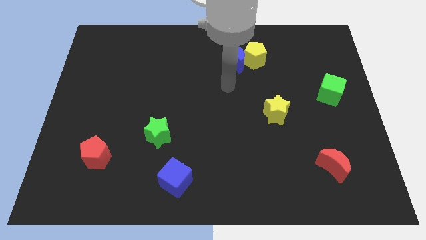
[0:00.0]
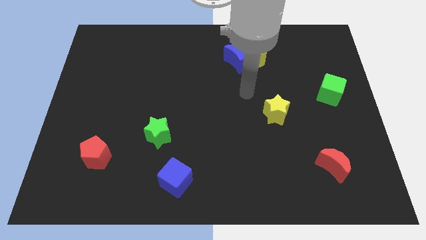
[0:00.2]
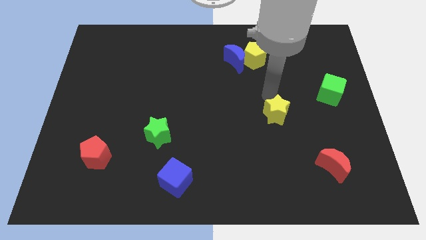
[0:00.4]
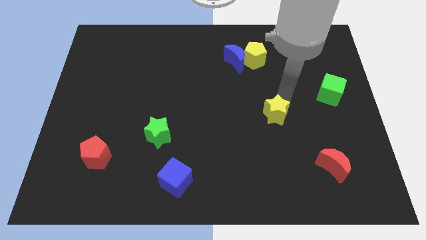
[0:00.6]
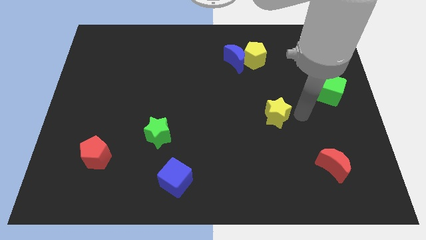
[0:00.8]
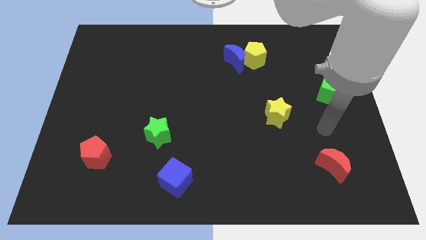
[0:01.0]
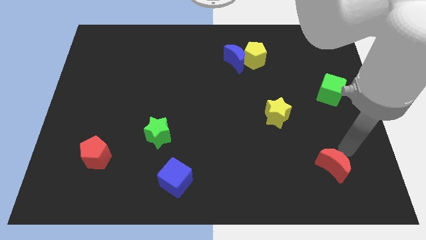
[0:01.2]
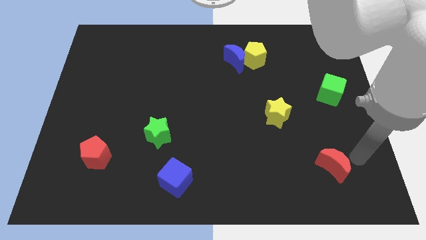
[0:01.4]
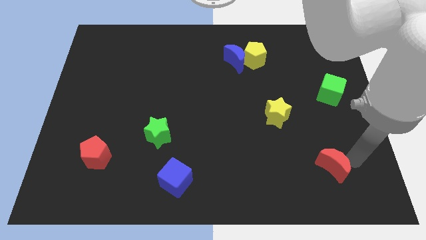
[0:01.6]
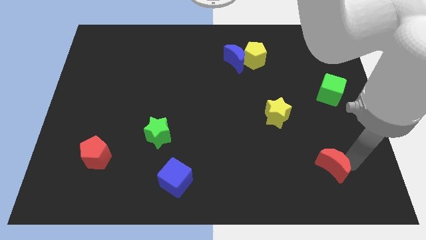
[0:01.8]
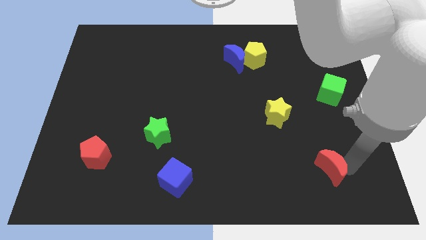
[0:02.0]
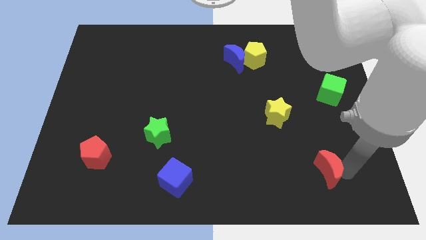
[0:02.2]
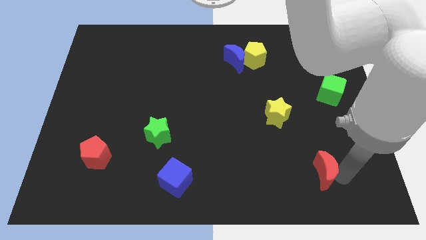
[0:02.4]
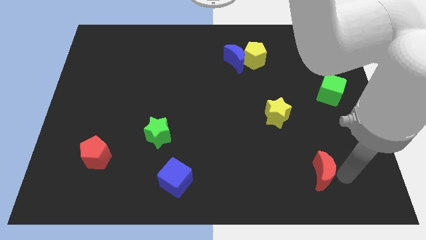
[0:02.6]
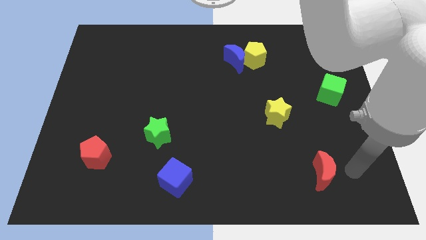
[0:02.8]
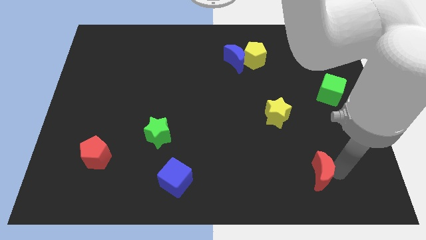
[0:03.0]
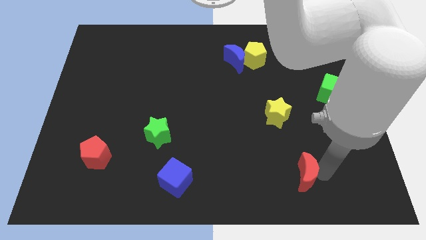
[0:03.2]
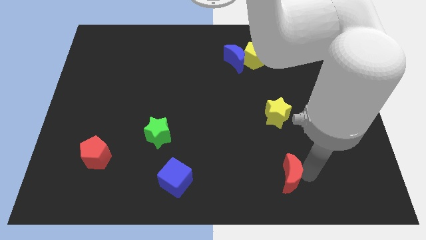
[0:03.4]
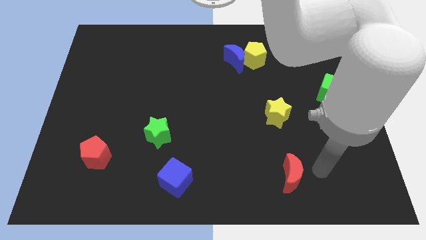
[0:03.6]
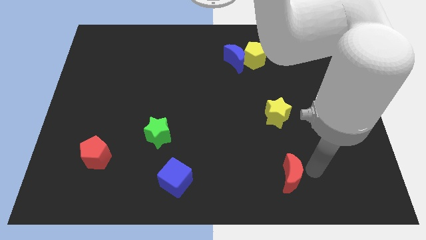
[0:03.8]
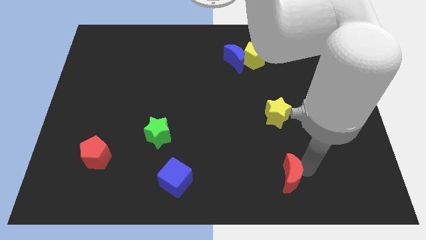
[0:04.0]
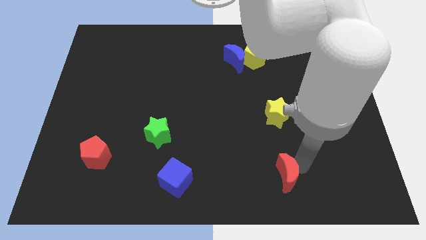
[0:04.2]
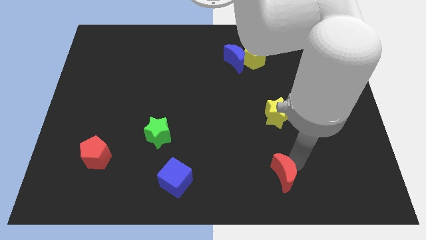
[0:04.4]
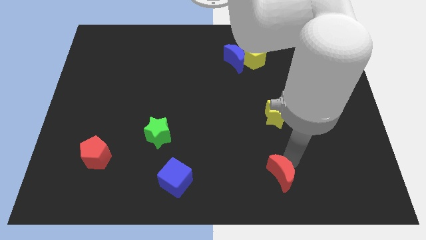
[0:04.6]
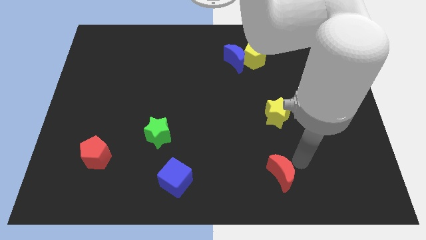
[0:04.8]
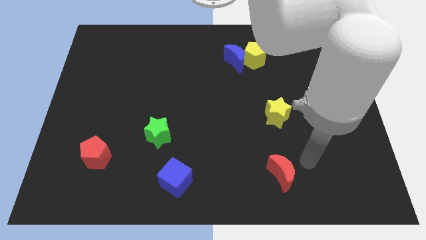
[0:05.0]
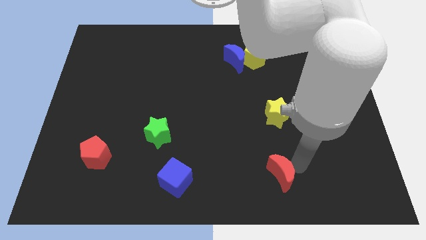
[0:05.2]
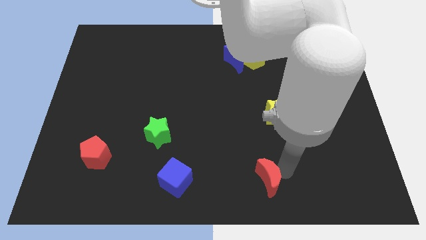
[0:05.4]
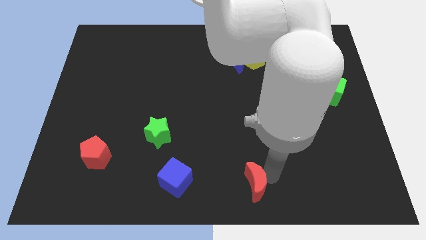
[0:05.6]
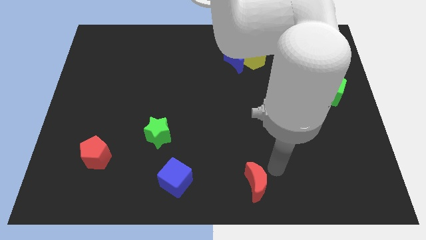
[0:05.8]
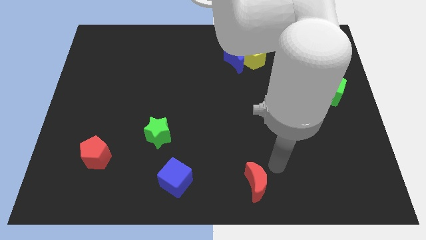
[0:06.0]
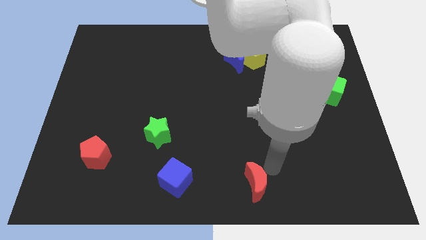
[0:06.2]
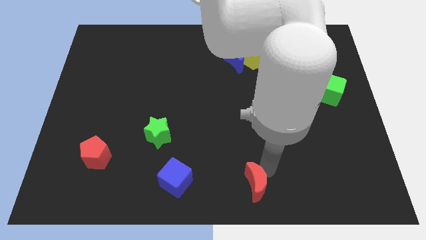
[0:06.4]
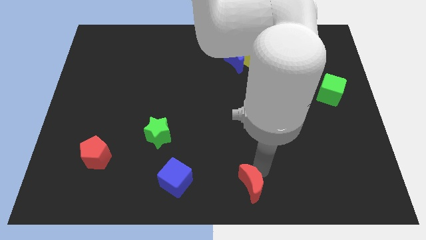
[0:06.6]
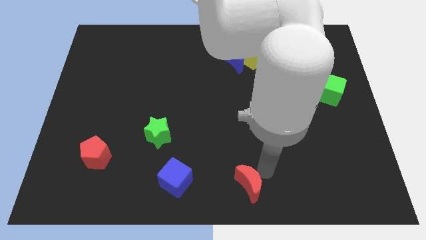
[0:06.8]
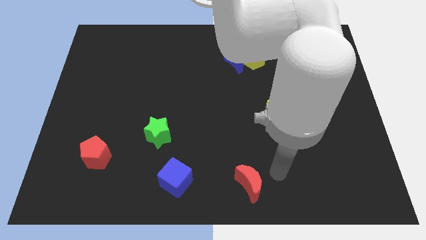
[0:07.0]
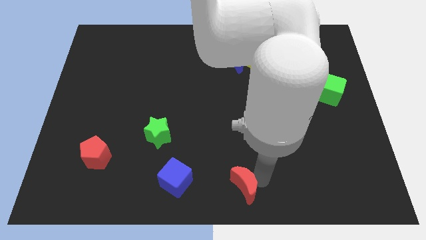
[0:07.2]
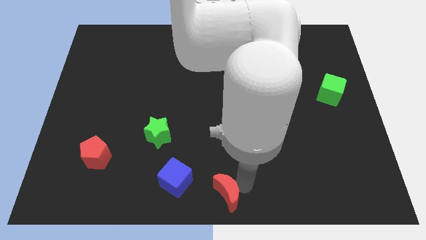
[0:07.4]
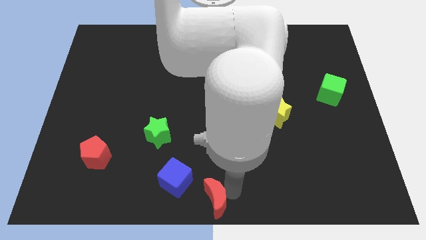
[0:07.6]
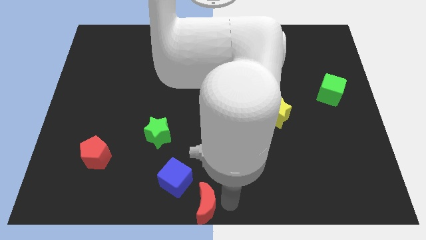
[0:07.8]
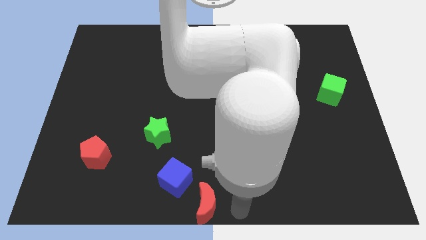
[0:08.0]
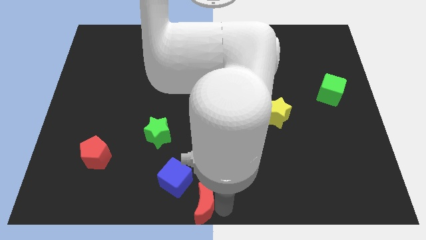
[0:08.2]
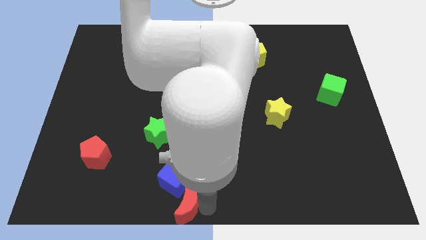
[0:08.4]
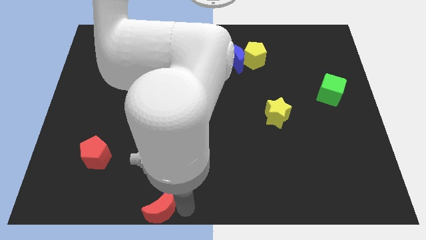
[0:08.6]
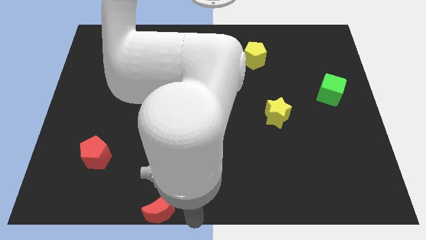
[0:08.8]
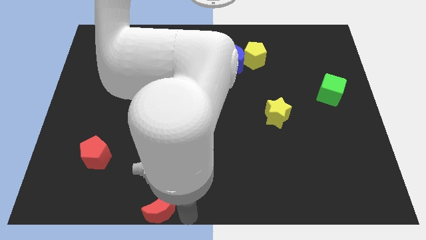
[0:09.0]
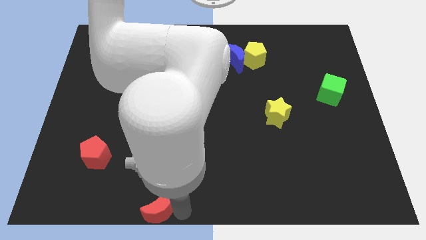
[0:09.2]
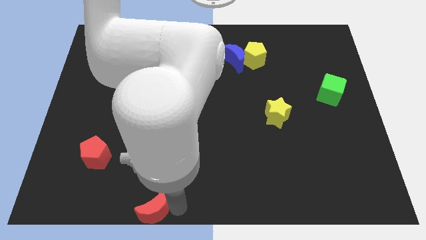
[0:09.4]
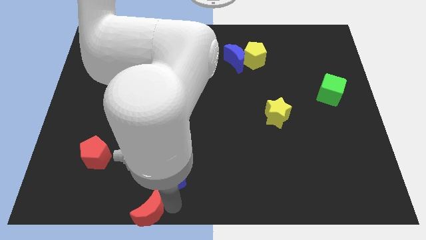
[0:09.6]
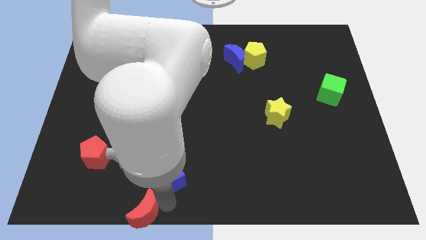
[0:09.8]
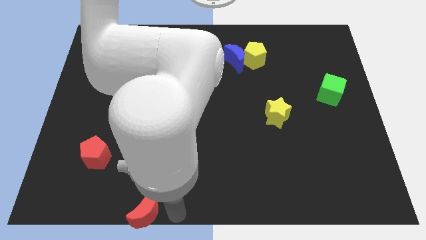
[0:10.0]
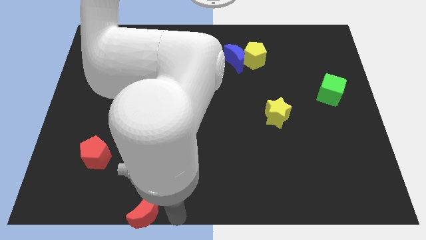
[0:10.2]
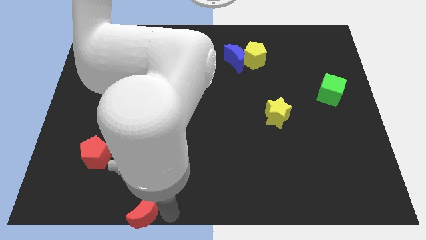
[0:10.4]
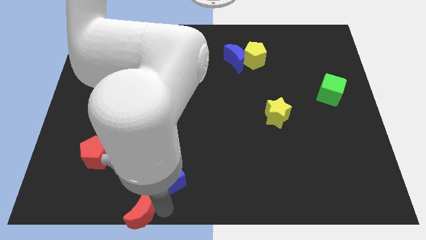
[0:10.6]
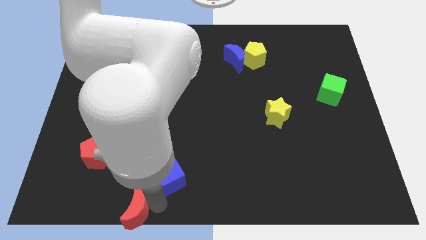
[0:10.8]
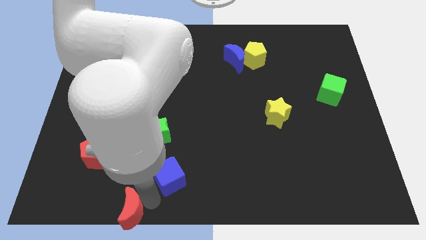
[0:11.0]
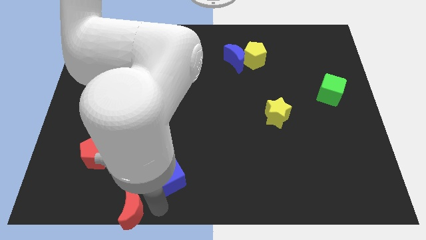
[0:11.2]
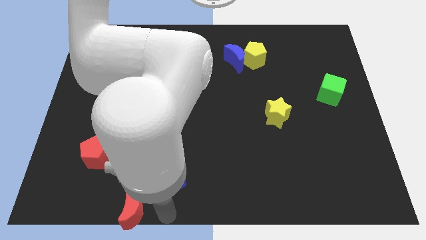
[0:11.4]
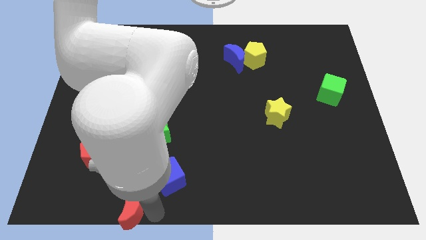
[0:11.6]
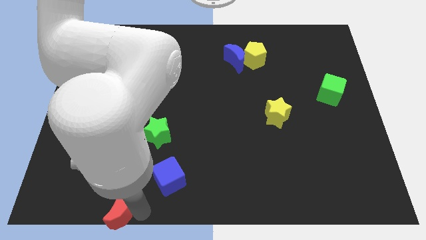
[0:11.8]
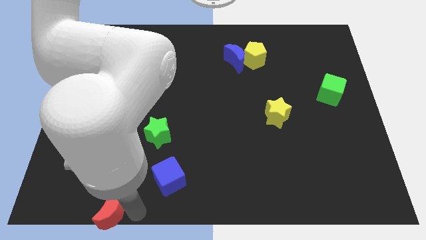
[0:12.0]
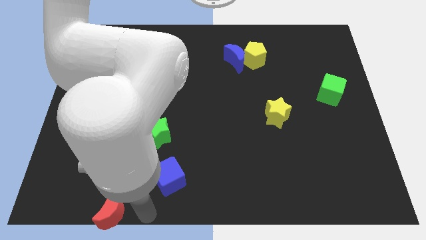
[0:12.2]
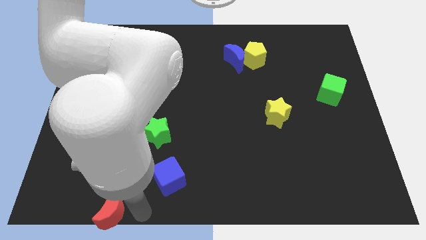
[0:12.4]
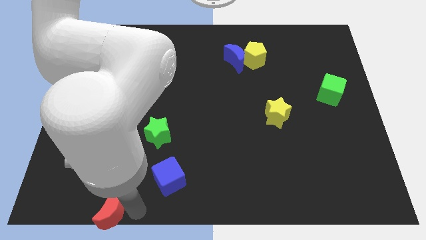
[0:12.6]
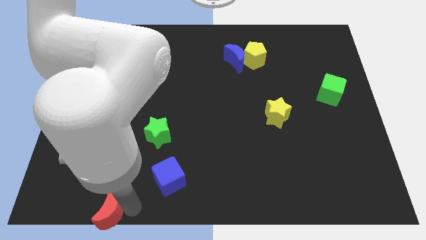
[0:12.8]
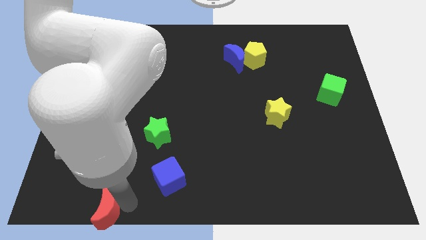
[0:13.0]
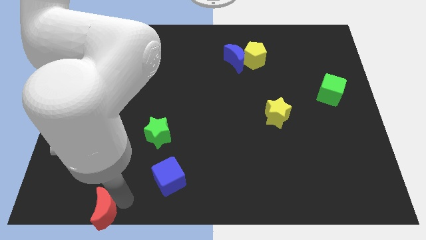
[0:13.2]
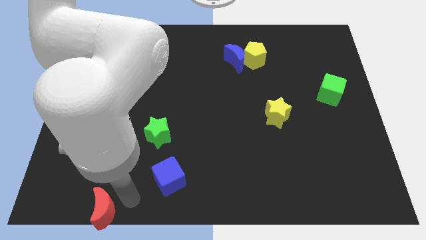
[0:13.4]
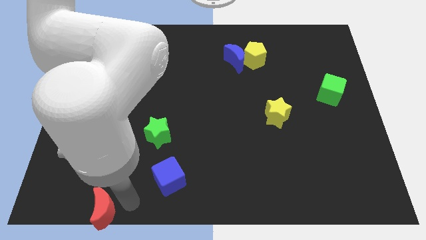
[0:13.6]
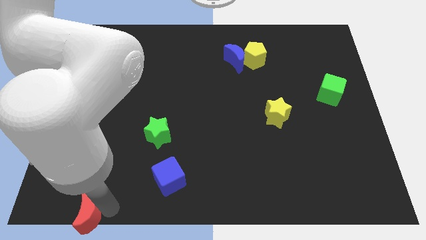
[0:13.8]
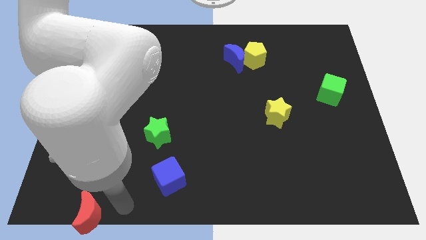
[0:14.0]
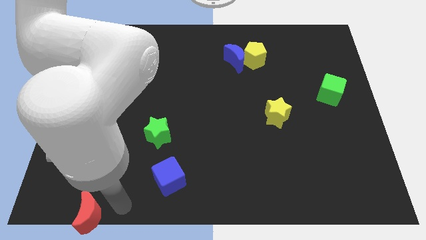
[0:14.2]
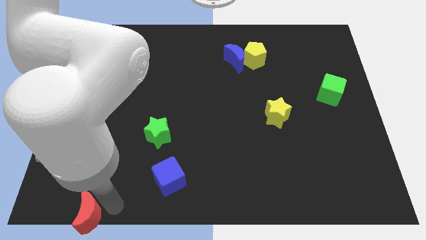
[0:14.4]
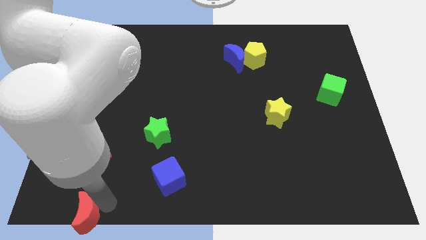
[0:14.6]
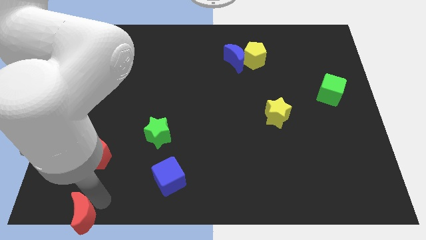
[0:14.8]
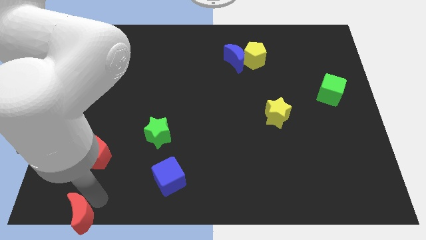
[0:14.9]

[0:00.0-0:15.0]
push the red moon to the bottom left of the board
